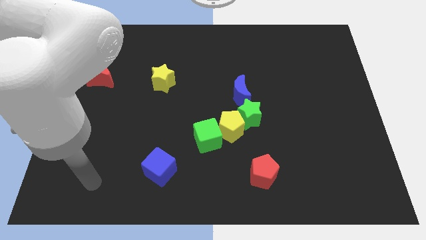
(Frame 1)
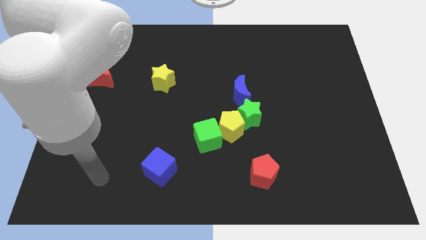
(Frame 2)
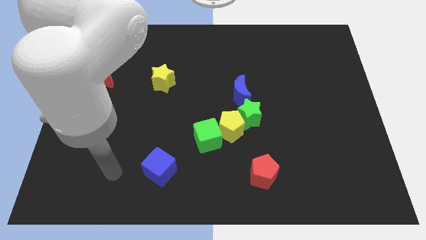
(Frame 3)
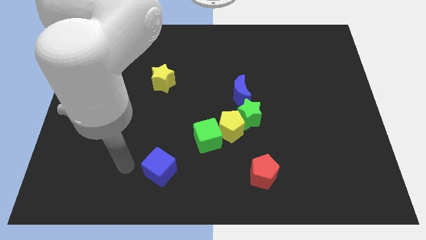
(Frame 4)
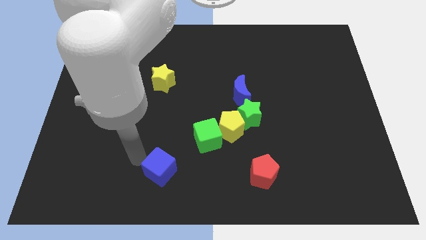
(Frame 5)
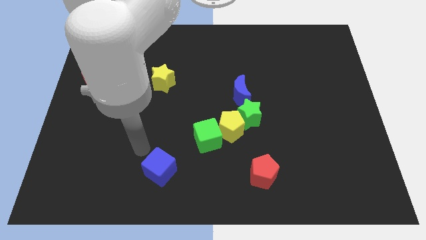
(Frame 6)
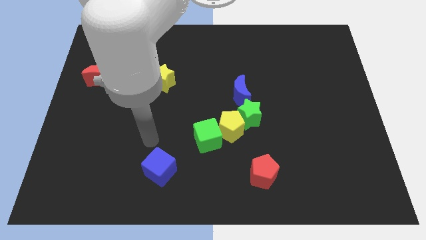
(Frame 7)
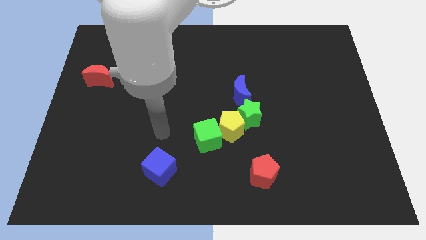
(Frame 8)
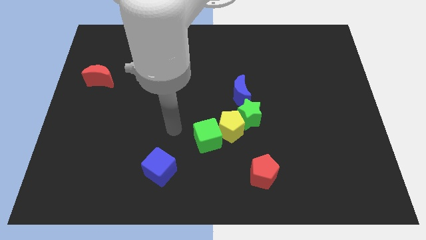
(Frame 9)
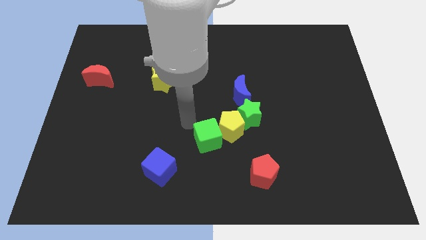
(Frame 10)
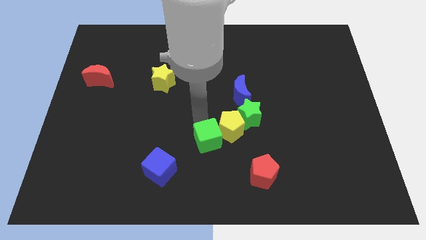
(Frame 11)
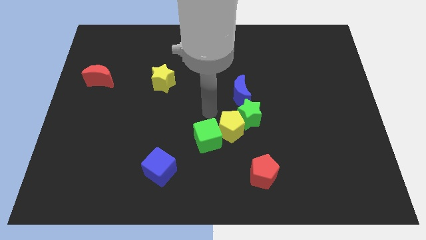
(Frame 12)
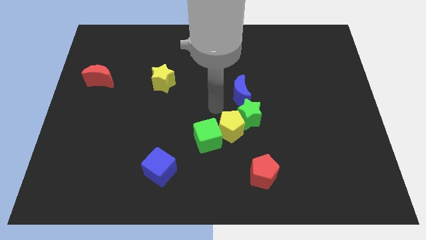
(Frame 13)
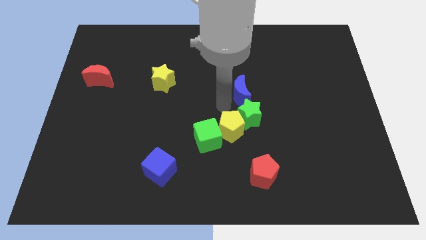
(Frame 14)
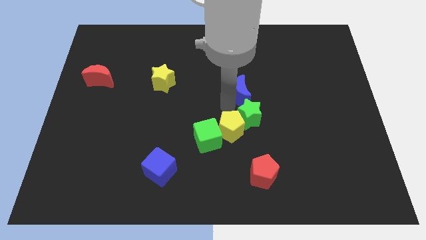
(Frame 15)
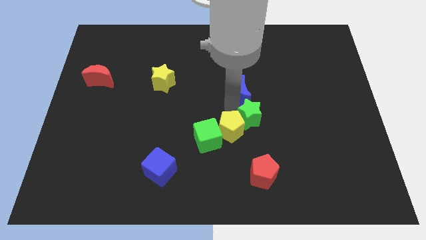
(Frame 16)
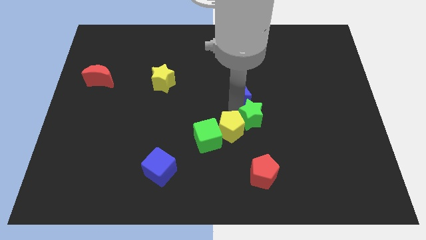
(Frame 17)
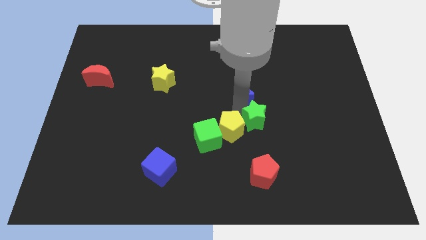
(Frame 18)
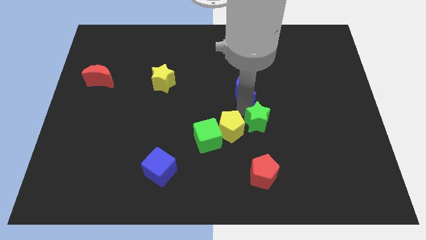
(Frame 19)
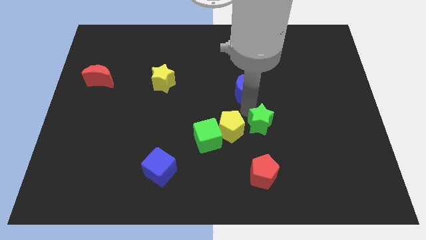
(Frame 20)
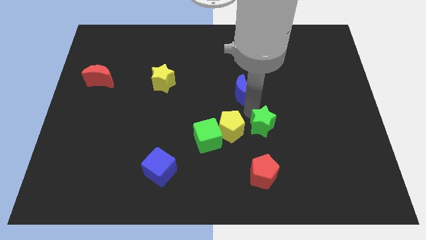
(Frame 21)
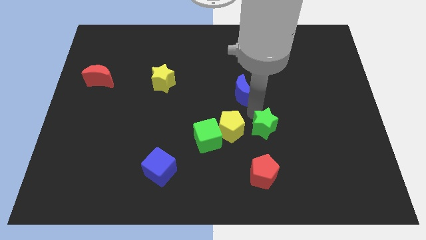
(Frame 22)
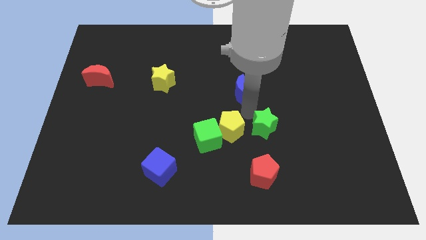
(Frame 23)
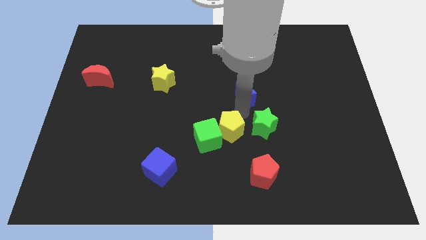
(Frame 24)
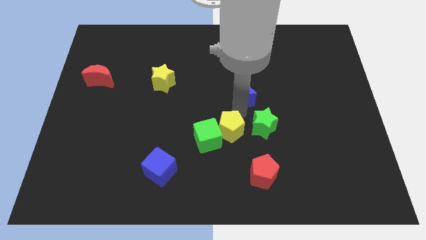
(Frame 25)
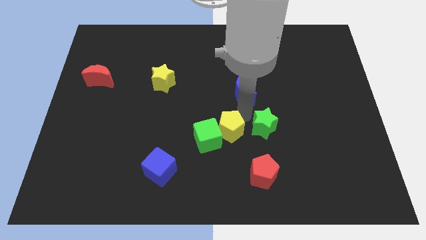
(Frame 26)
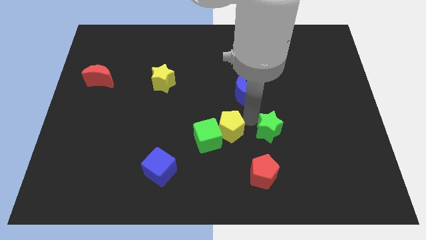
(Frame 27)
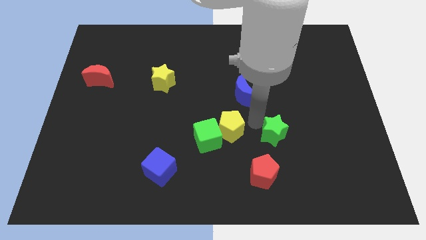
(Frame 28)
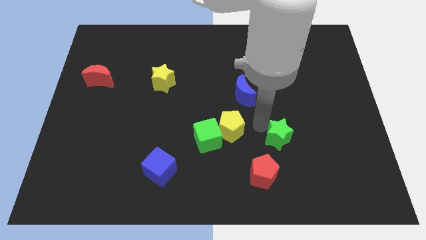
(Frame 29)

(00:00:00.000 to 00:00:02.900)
move the green star away from the yellow pentagon and blue moon

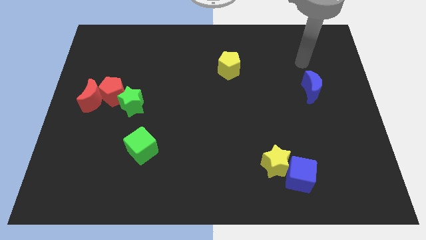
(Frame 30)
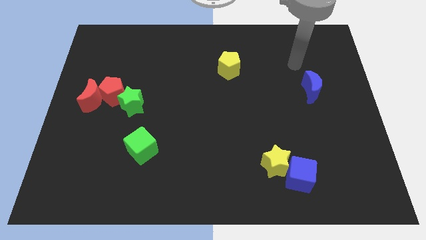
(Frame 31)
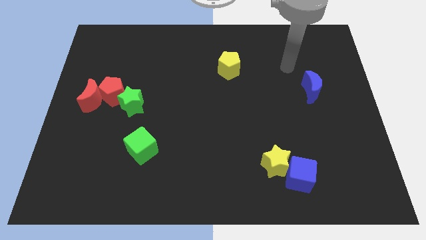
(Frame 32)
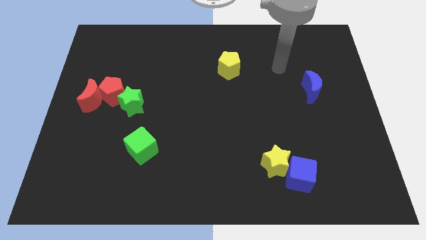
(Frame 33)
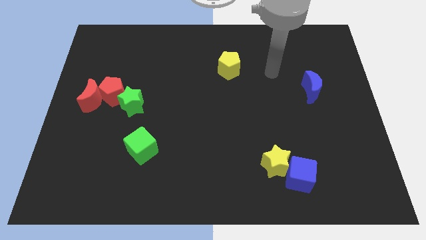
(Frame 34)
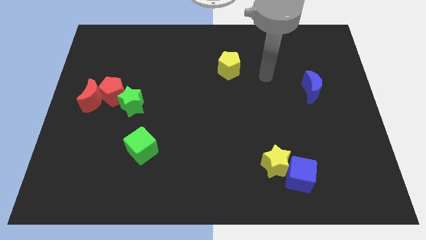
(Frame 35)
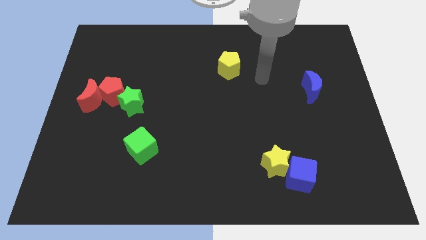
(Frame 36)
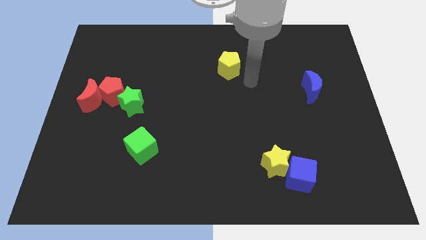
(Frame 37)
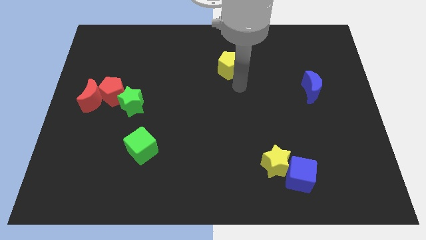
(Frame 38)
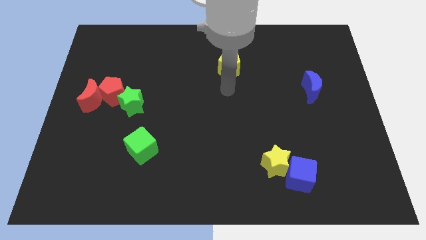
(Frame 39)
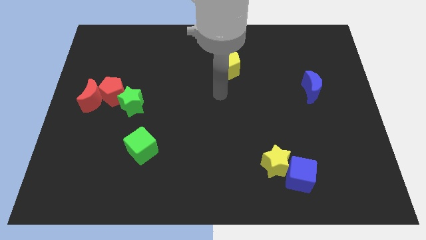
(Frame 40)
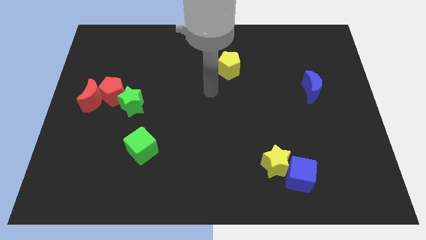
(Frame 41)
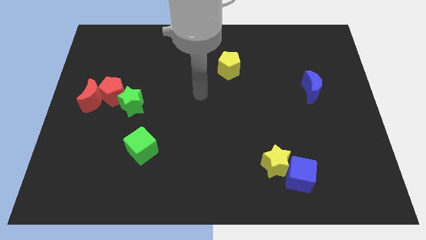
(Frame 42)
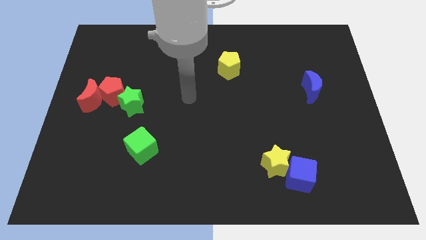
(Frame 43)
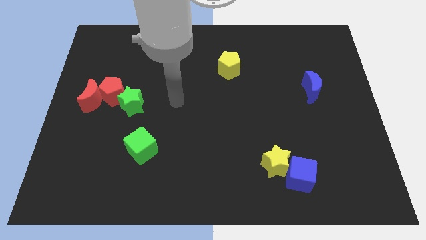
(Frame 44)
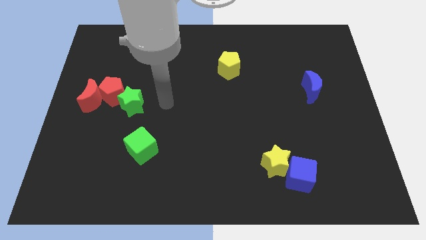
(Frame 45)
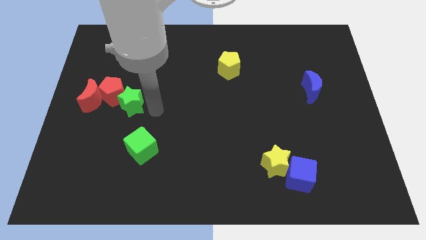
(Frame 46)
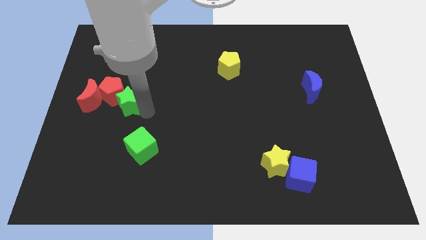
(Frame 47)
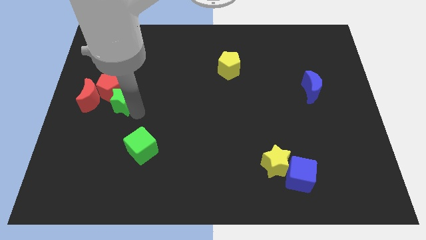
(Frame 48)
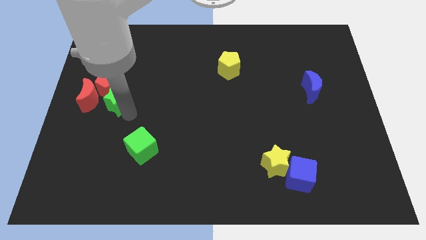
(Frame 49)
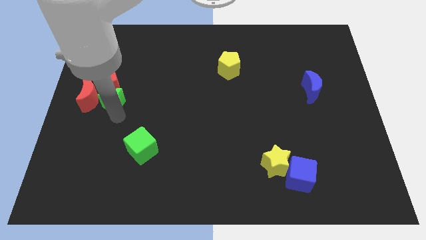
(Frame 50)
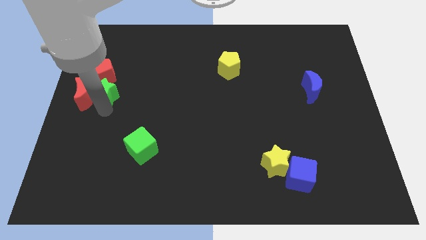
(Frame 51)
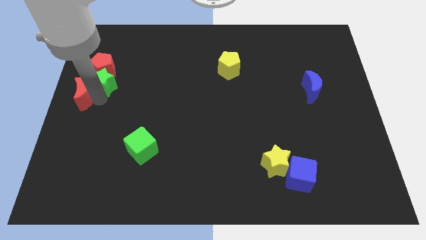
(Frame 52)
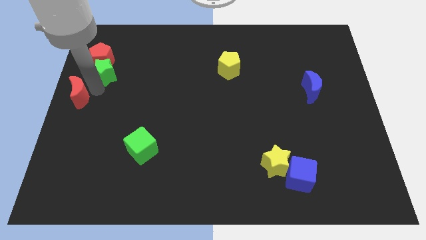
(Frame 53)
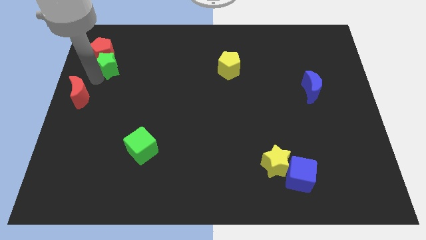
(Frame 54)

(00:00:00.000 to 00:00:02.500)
pull the red pentagon apart from the red moon and green star

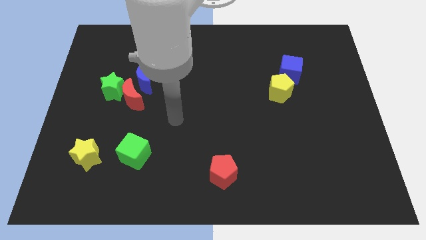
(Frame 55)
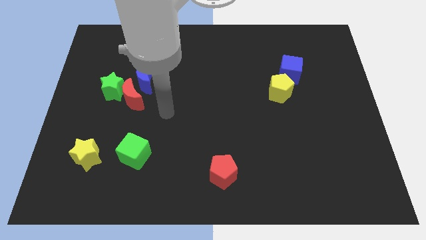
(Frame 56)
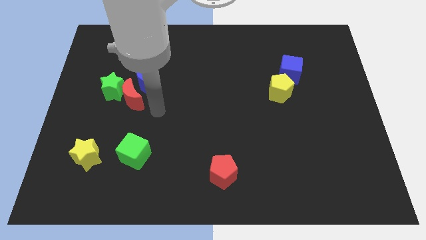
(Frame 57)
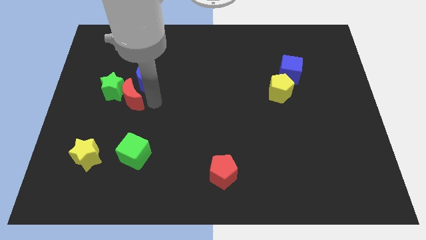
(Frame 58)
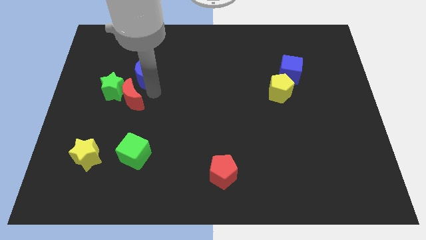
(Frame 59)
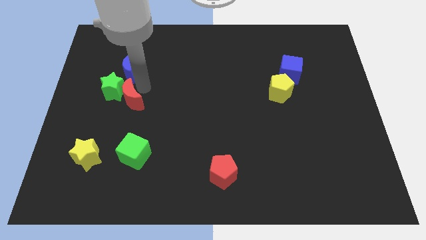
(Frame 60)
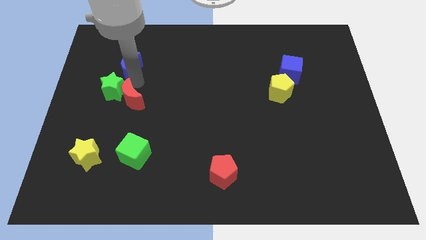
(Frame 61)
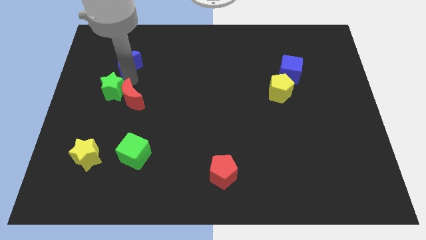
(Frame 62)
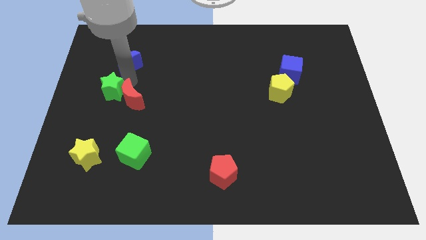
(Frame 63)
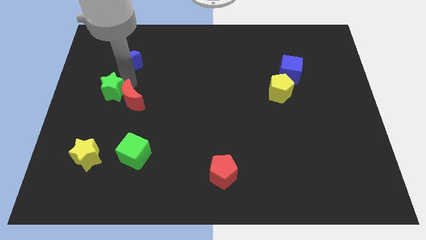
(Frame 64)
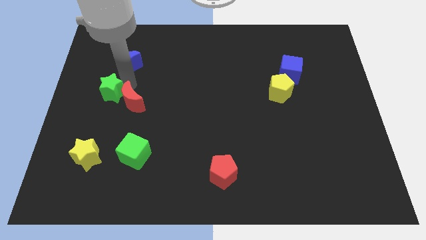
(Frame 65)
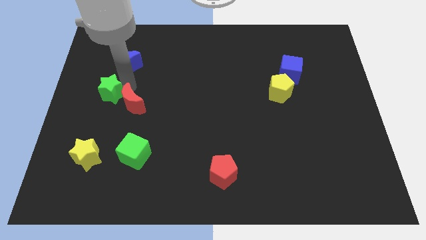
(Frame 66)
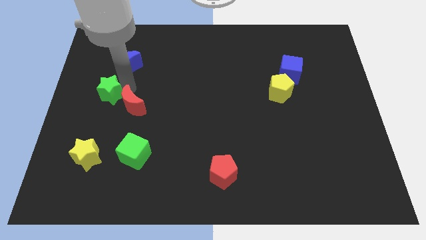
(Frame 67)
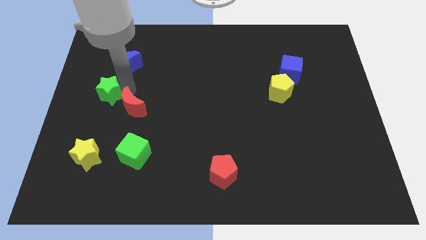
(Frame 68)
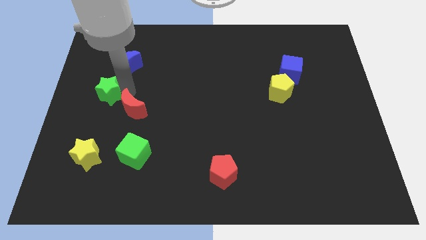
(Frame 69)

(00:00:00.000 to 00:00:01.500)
move the red moon away from the green star and blue moon

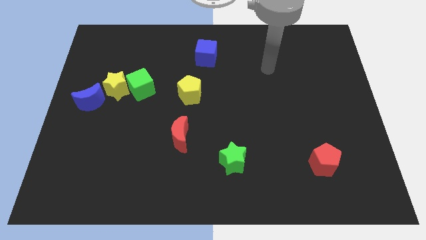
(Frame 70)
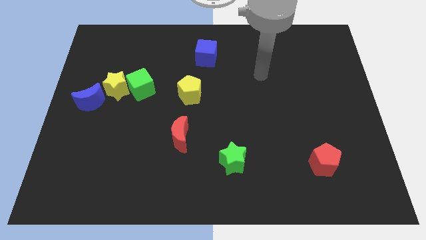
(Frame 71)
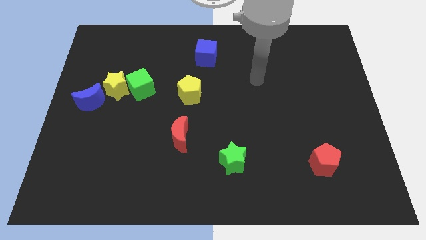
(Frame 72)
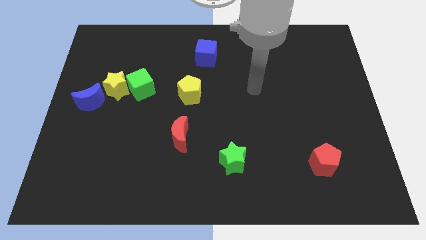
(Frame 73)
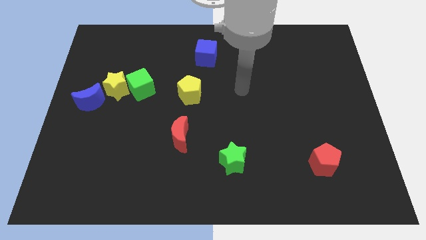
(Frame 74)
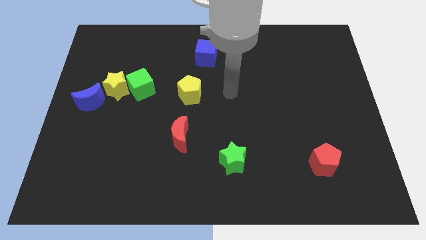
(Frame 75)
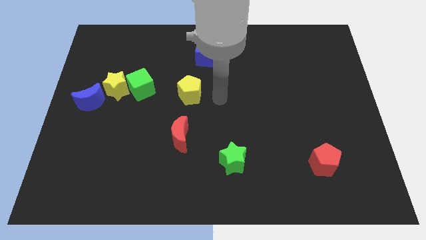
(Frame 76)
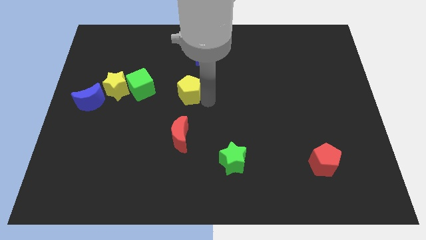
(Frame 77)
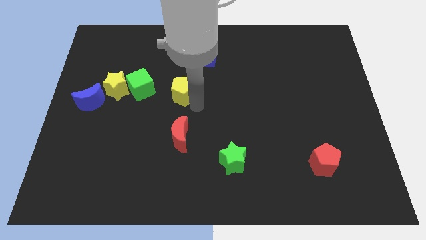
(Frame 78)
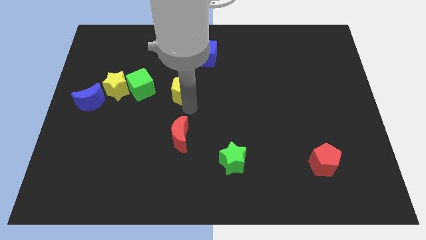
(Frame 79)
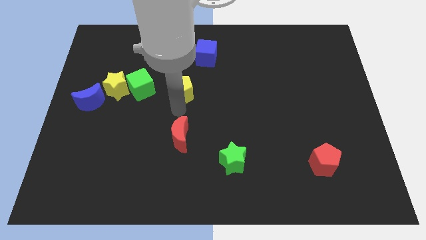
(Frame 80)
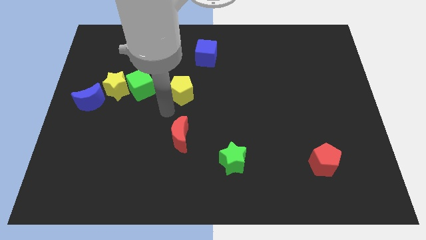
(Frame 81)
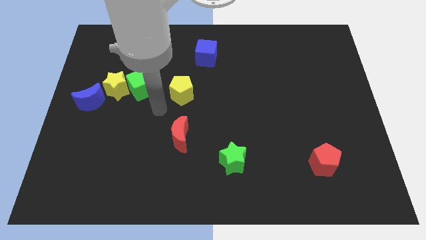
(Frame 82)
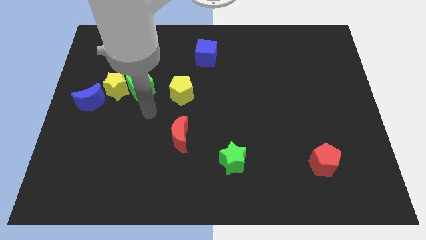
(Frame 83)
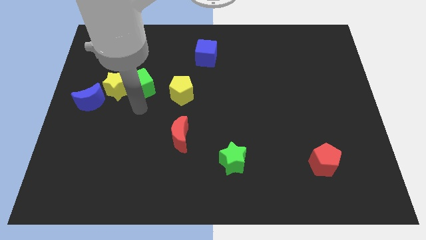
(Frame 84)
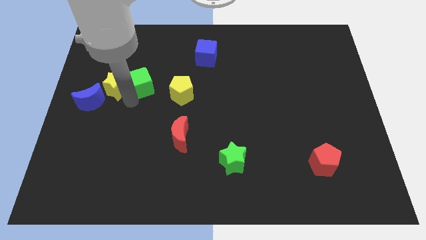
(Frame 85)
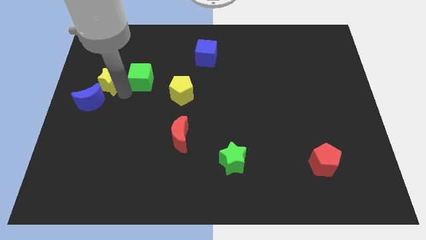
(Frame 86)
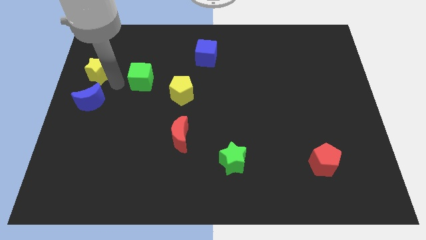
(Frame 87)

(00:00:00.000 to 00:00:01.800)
separate the green cube from the yellow star

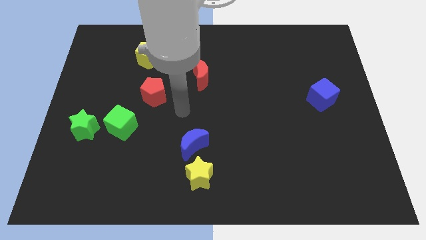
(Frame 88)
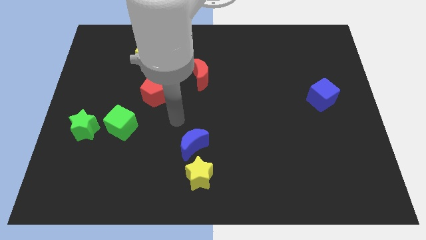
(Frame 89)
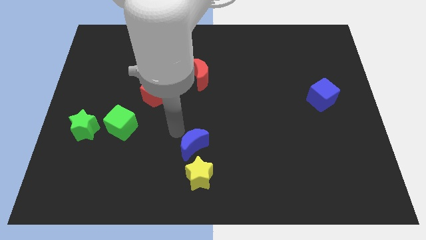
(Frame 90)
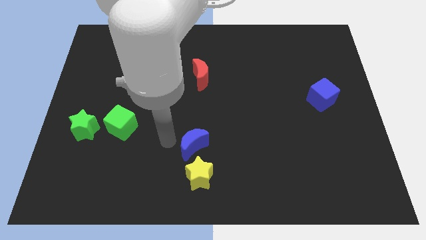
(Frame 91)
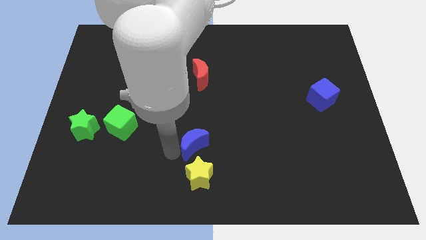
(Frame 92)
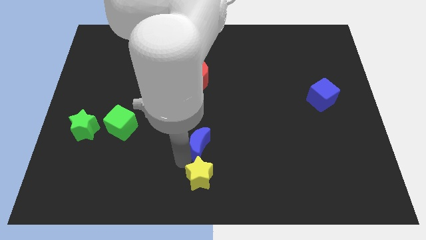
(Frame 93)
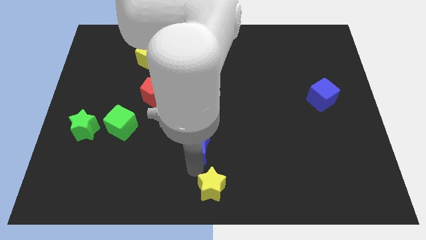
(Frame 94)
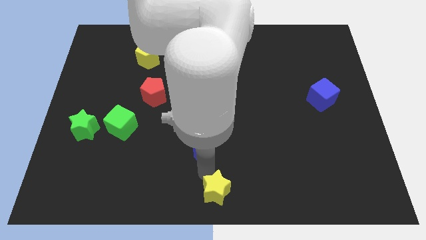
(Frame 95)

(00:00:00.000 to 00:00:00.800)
separate the blue moon from the yellow star
